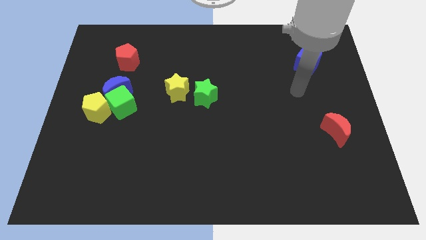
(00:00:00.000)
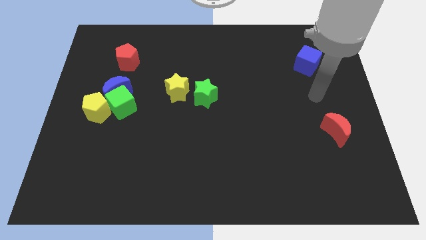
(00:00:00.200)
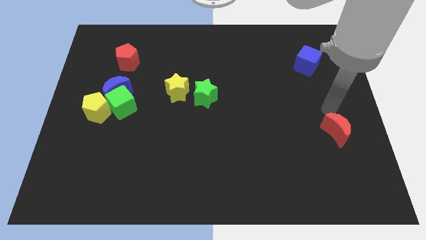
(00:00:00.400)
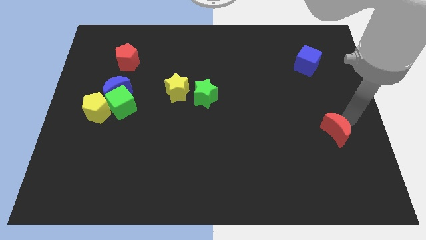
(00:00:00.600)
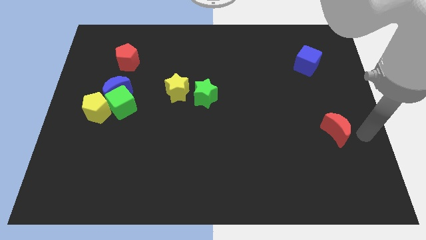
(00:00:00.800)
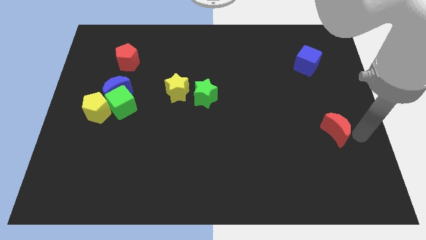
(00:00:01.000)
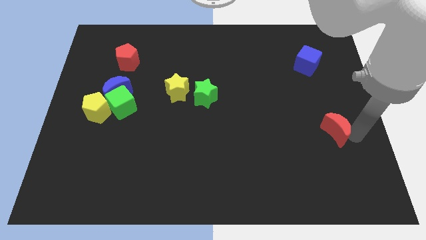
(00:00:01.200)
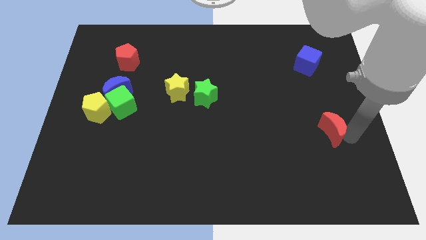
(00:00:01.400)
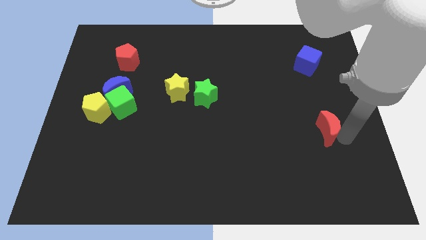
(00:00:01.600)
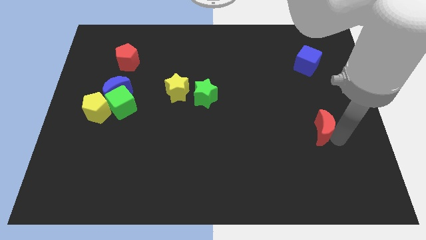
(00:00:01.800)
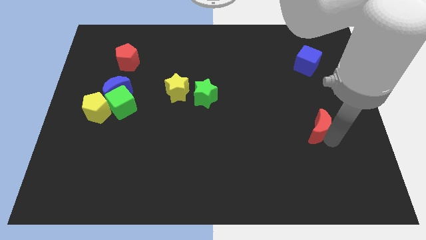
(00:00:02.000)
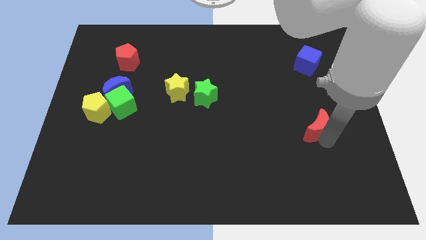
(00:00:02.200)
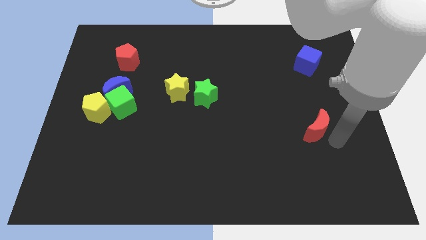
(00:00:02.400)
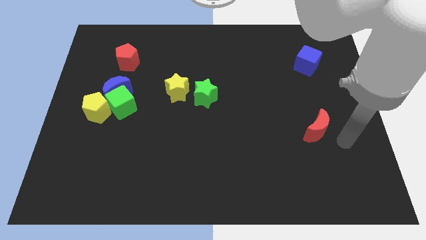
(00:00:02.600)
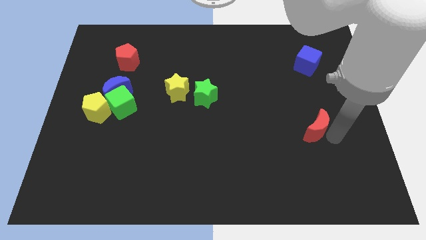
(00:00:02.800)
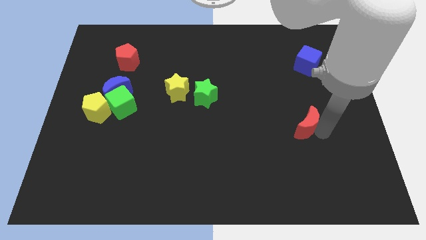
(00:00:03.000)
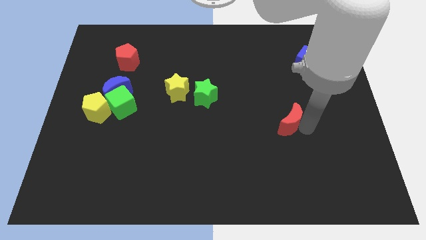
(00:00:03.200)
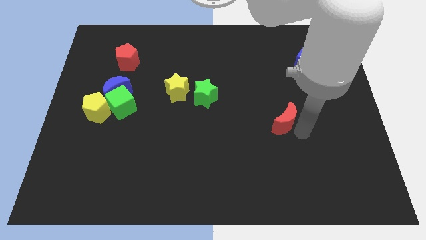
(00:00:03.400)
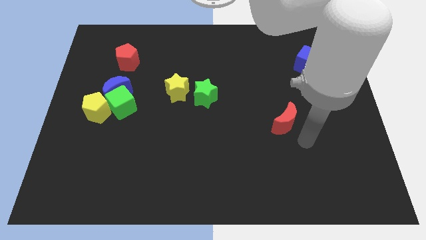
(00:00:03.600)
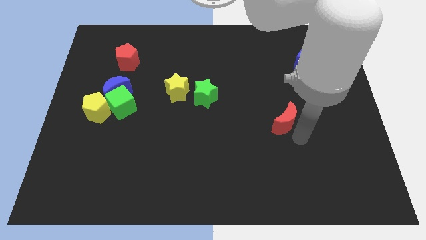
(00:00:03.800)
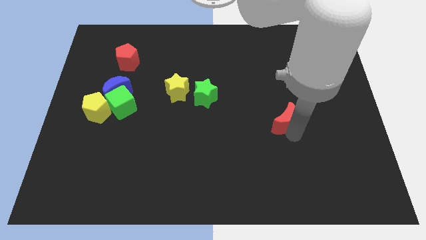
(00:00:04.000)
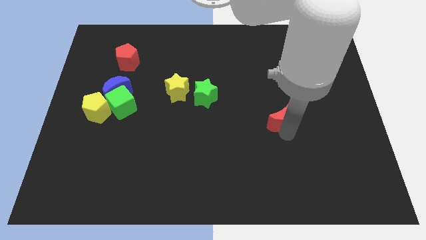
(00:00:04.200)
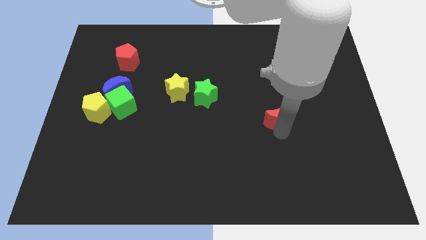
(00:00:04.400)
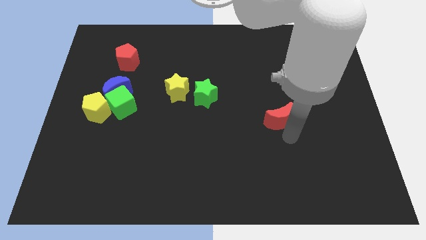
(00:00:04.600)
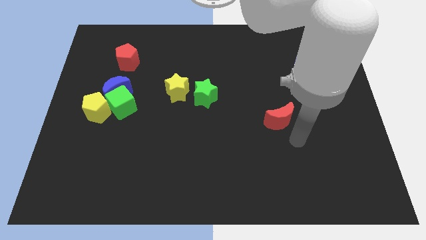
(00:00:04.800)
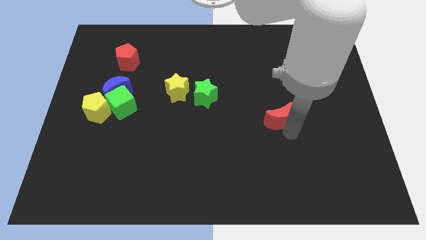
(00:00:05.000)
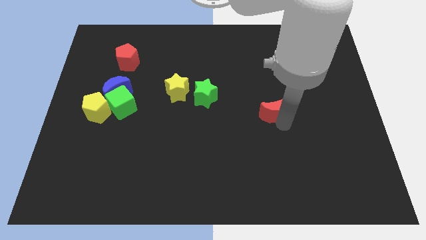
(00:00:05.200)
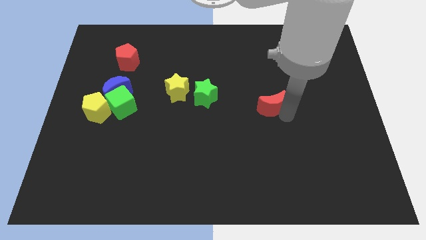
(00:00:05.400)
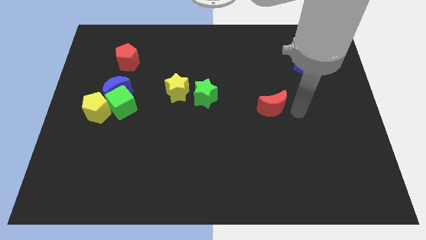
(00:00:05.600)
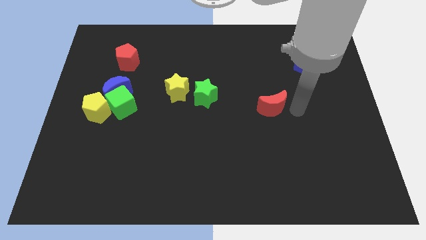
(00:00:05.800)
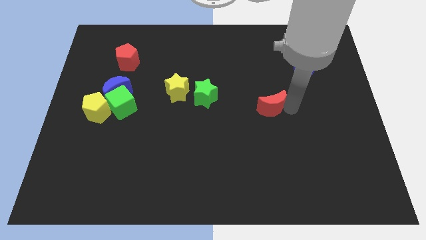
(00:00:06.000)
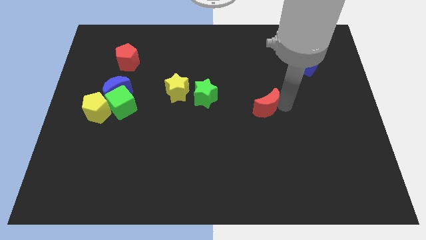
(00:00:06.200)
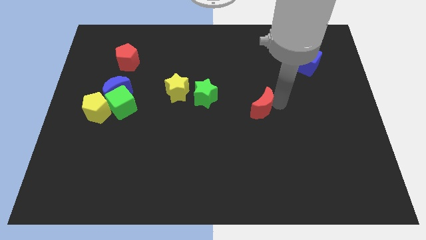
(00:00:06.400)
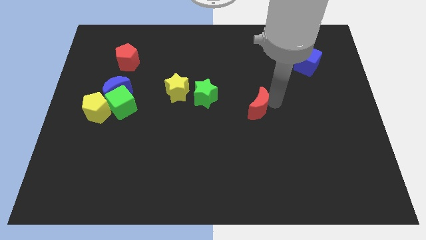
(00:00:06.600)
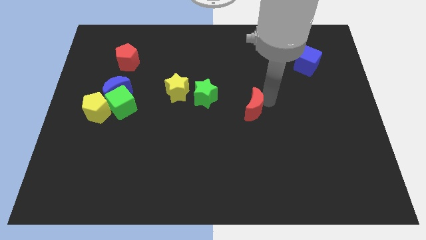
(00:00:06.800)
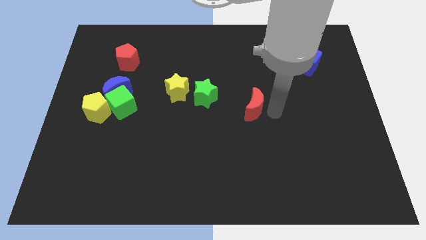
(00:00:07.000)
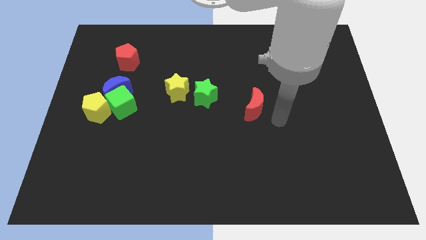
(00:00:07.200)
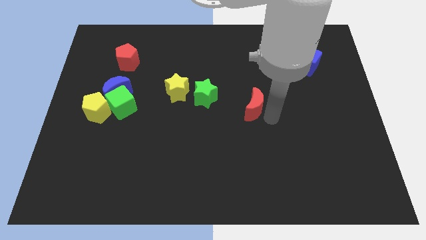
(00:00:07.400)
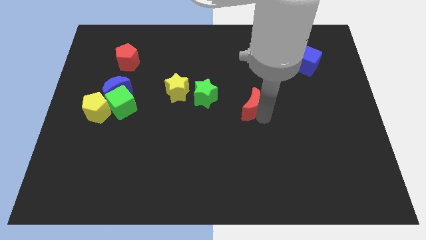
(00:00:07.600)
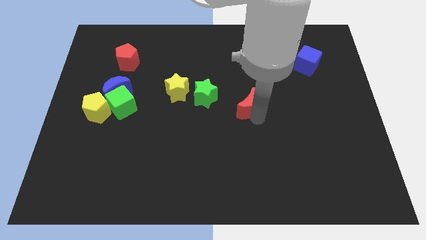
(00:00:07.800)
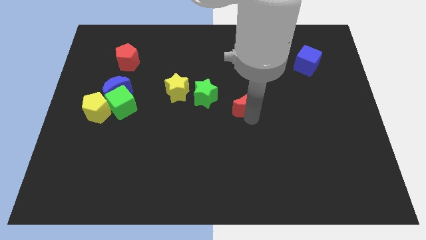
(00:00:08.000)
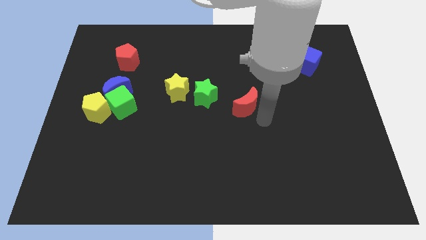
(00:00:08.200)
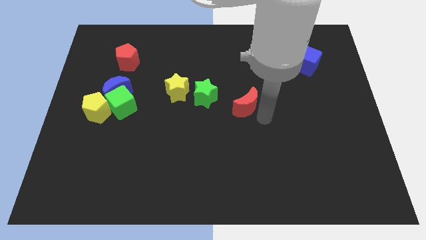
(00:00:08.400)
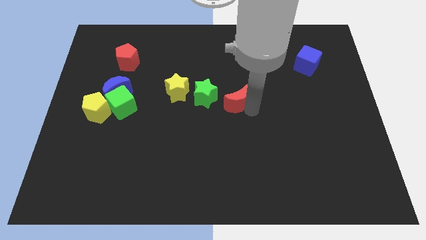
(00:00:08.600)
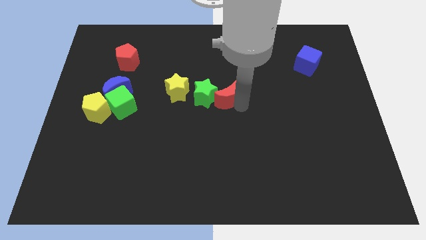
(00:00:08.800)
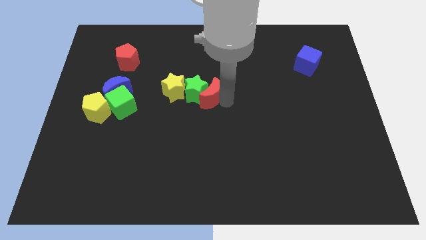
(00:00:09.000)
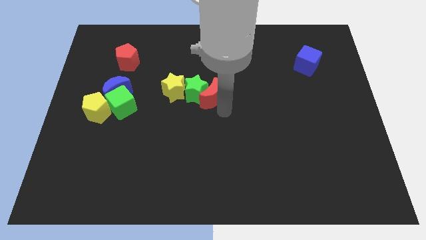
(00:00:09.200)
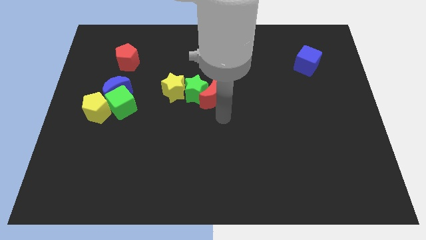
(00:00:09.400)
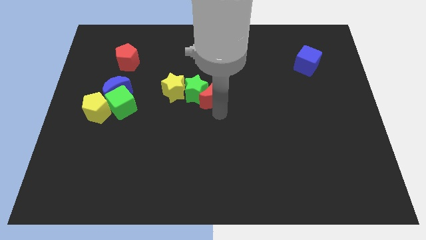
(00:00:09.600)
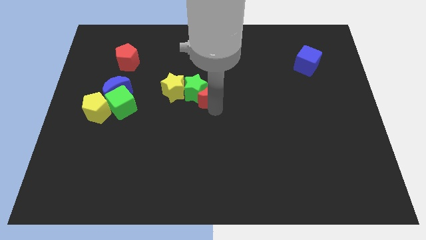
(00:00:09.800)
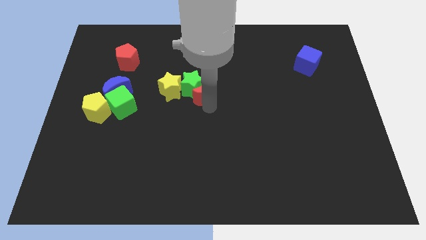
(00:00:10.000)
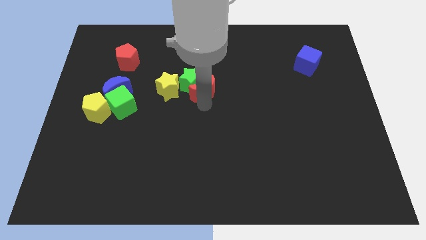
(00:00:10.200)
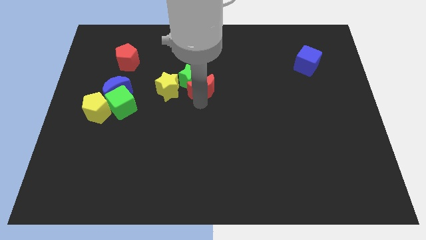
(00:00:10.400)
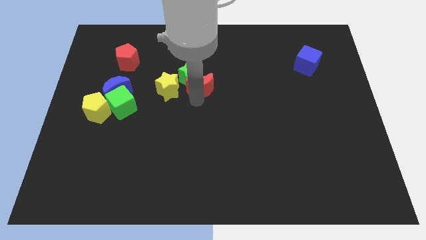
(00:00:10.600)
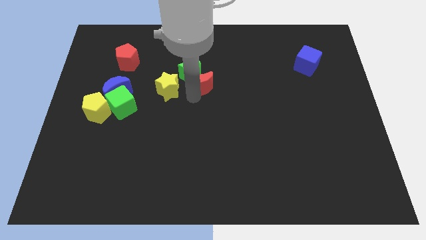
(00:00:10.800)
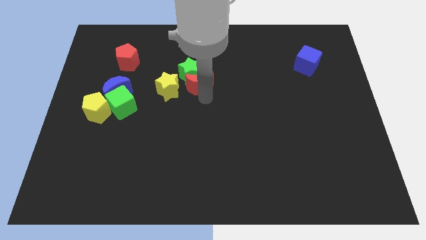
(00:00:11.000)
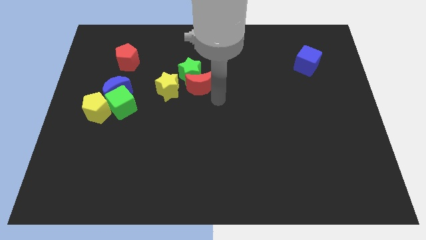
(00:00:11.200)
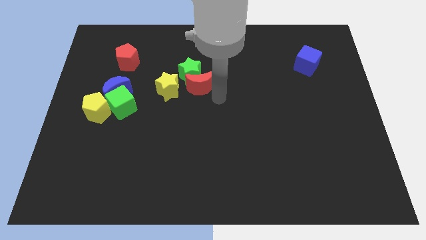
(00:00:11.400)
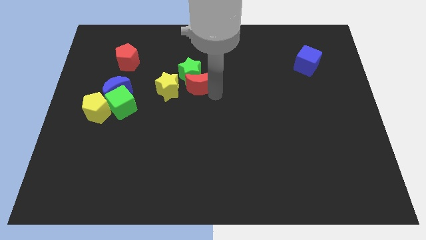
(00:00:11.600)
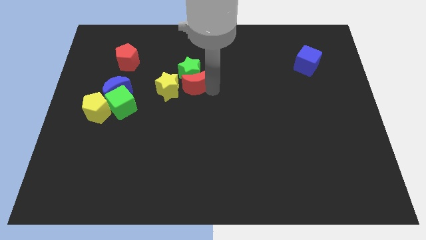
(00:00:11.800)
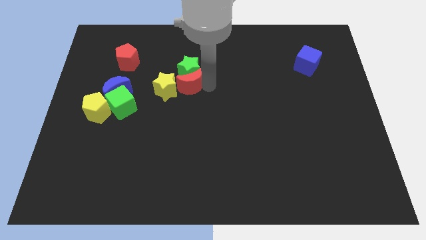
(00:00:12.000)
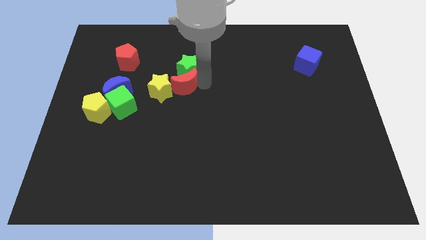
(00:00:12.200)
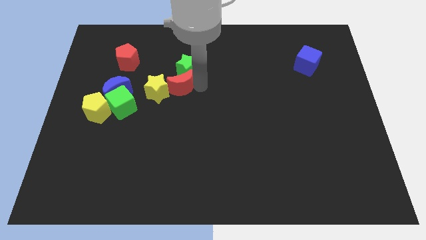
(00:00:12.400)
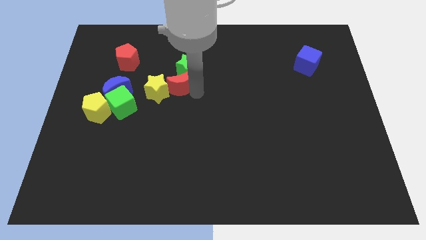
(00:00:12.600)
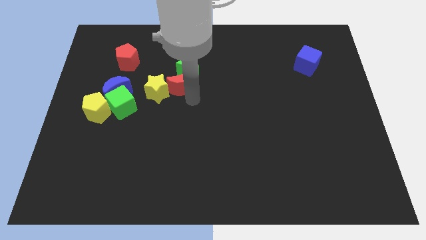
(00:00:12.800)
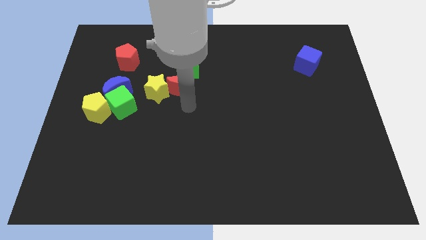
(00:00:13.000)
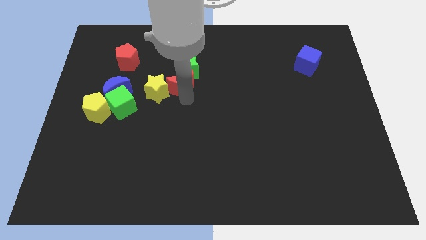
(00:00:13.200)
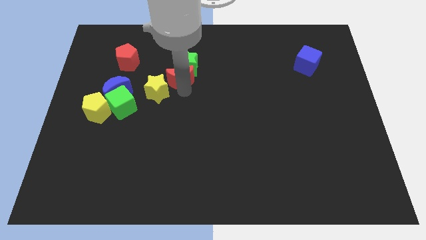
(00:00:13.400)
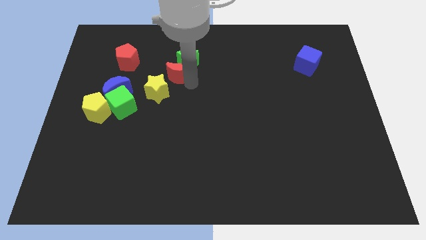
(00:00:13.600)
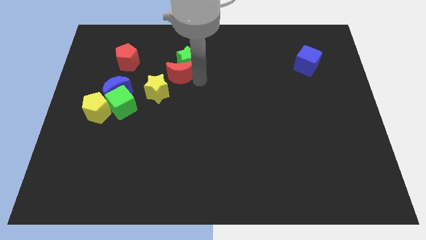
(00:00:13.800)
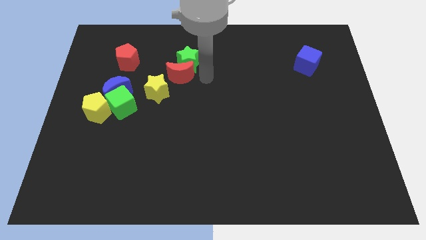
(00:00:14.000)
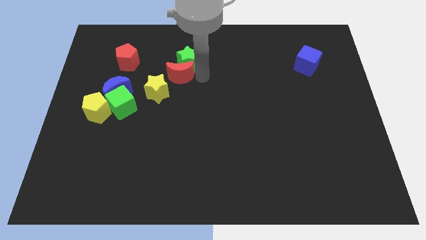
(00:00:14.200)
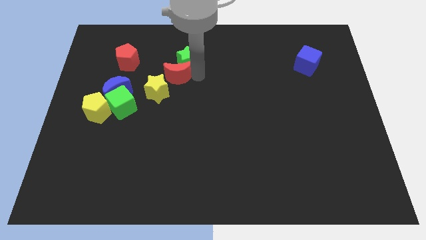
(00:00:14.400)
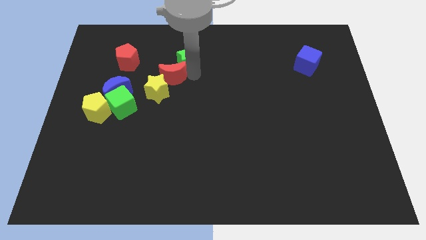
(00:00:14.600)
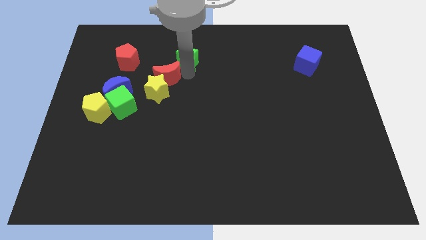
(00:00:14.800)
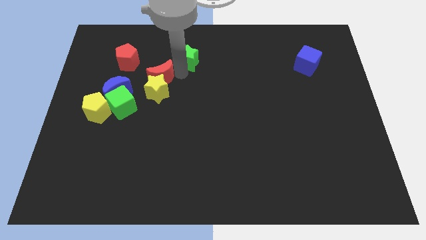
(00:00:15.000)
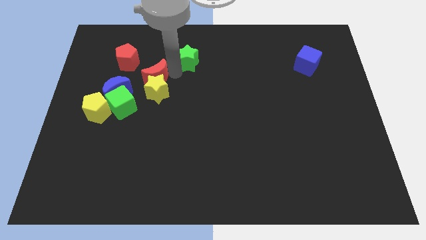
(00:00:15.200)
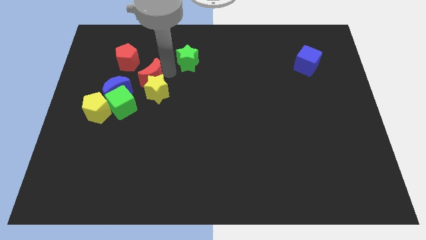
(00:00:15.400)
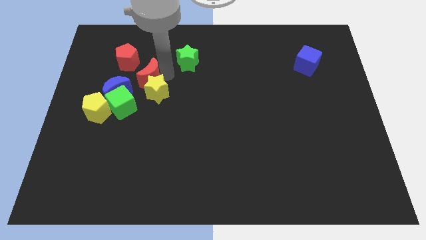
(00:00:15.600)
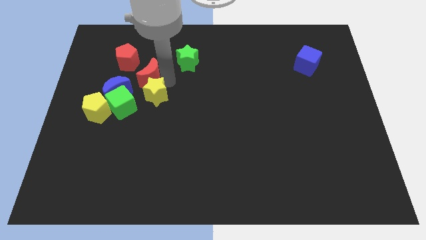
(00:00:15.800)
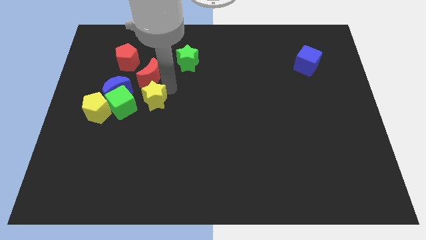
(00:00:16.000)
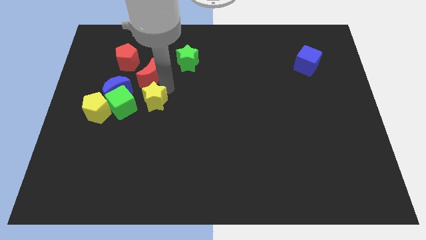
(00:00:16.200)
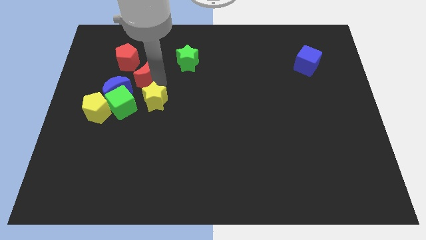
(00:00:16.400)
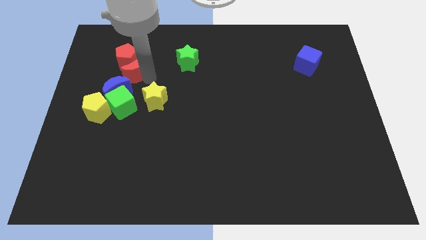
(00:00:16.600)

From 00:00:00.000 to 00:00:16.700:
slide the red moon towards the red pentagon
